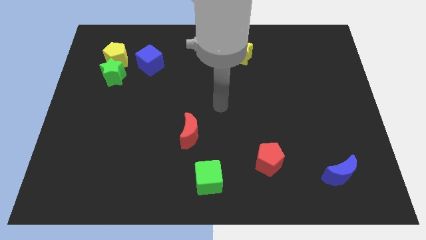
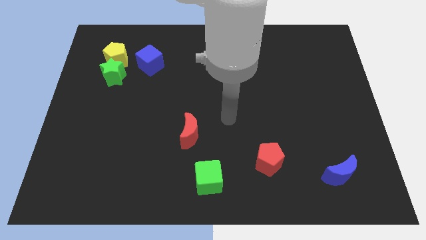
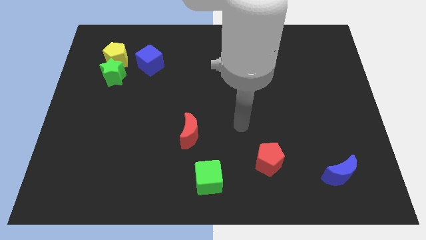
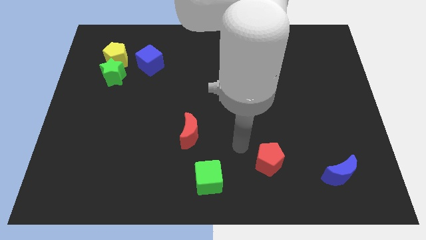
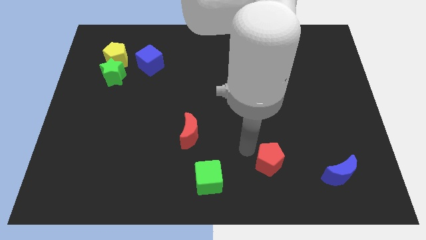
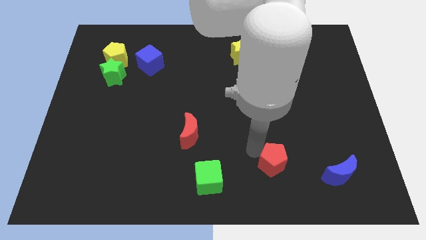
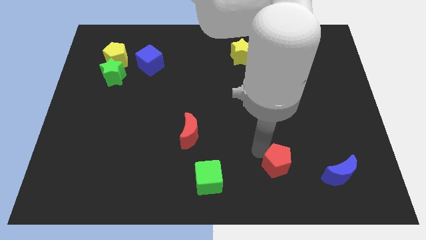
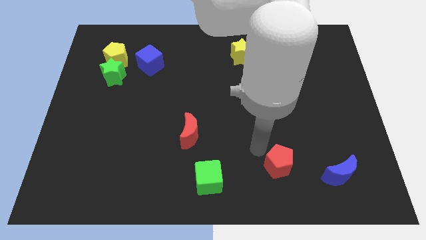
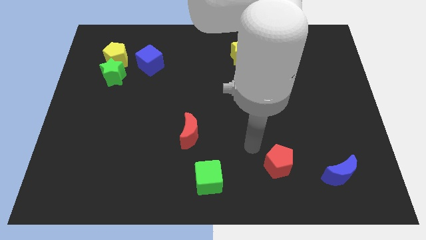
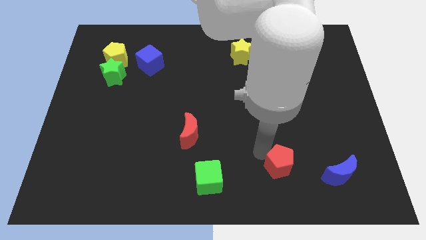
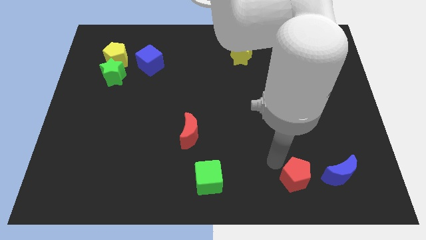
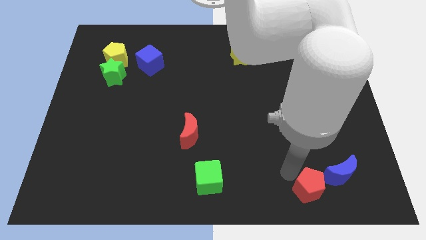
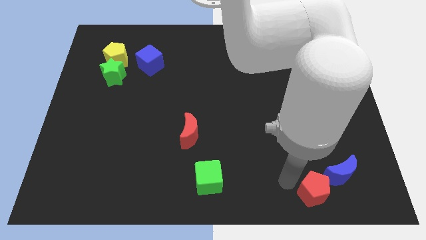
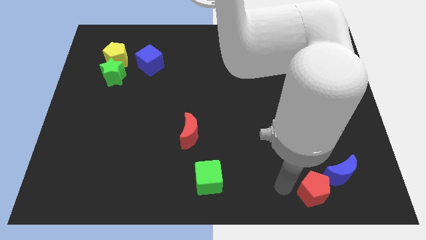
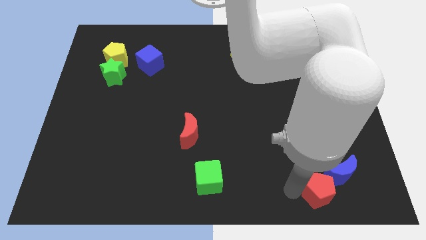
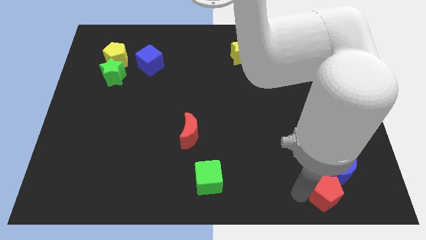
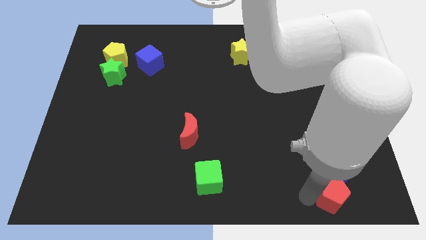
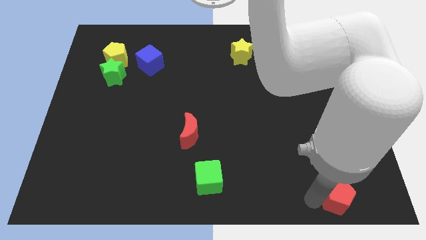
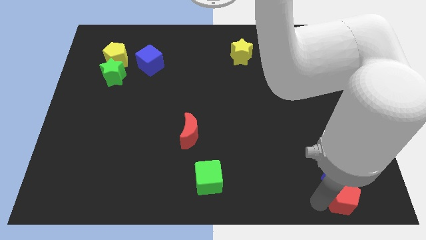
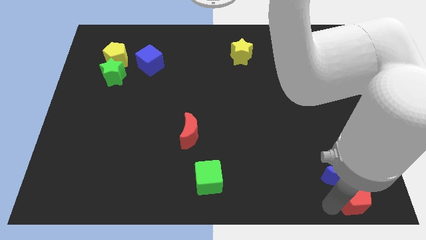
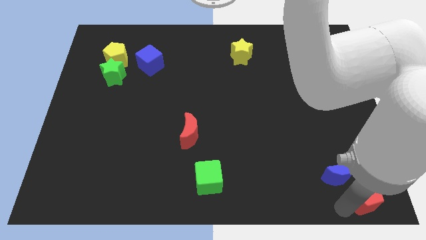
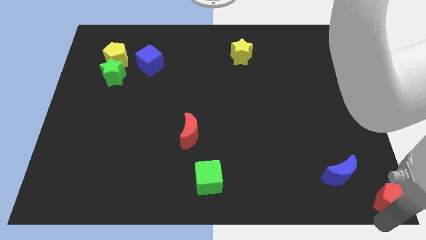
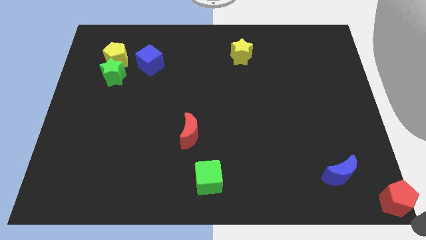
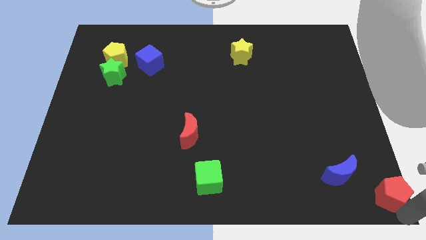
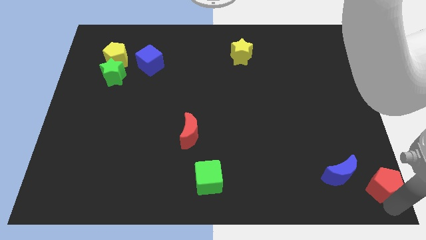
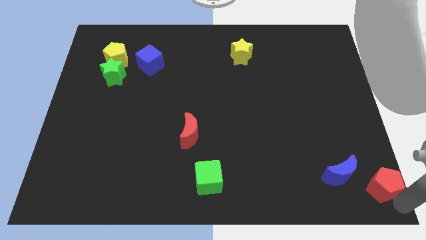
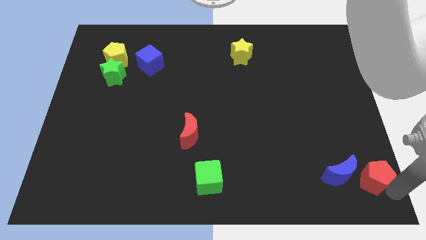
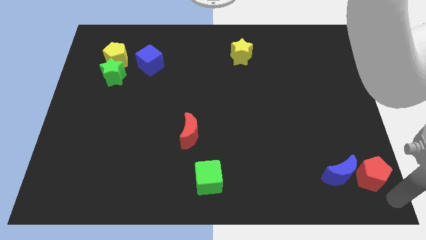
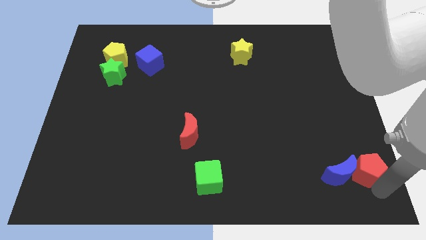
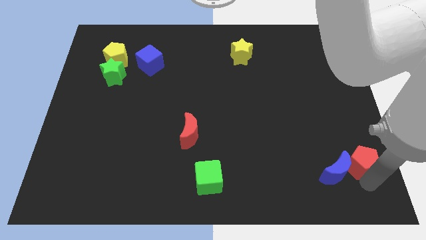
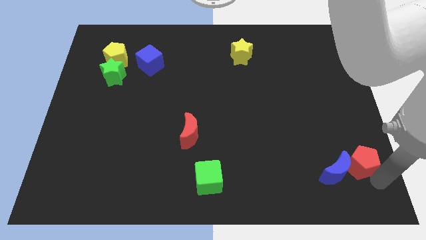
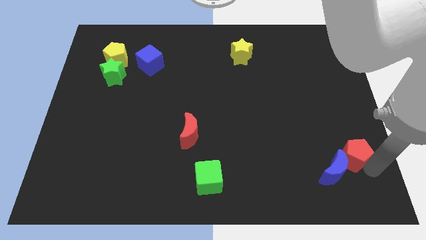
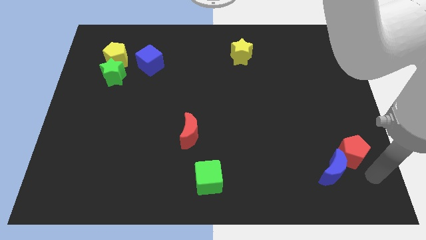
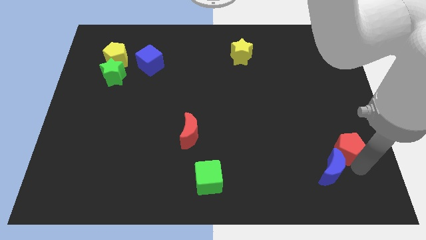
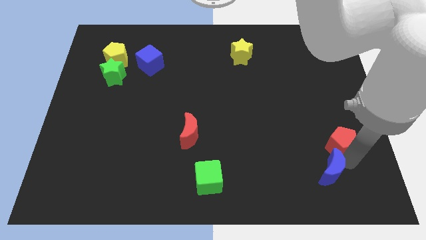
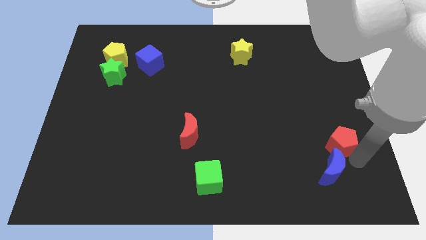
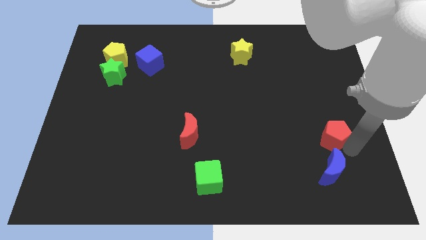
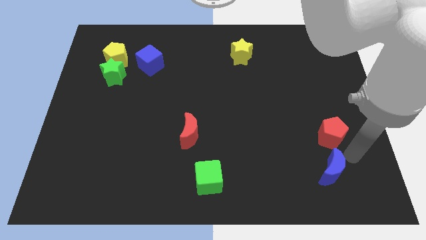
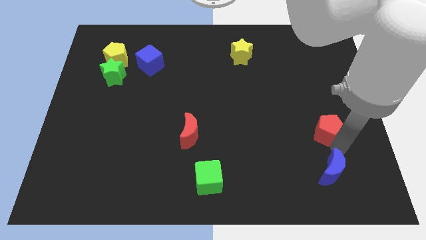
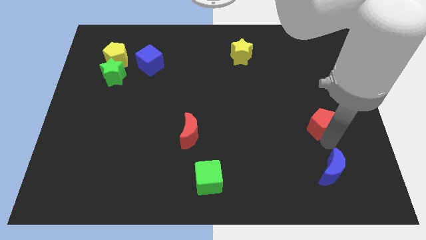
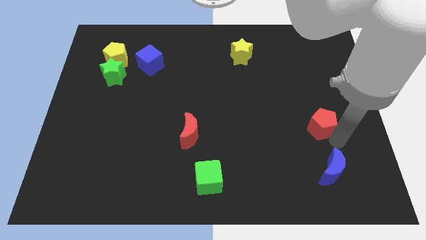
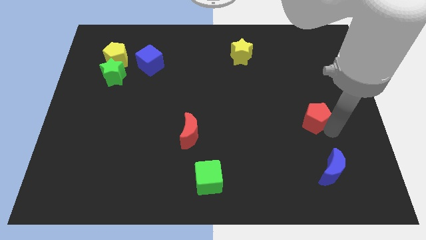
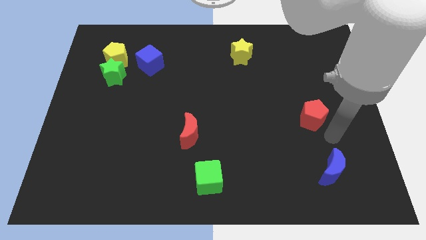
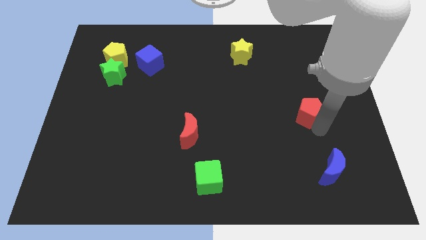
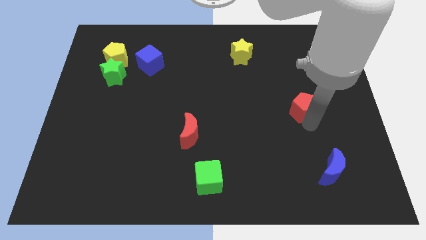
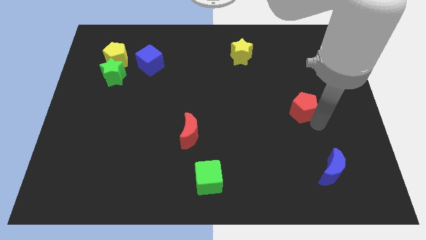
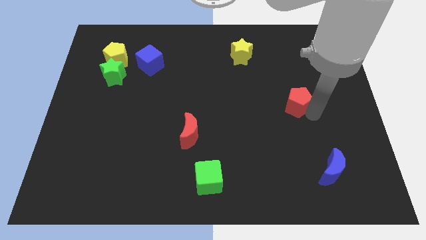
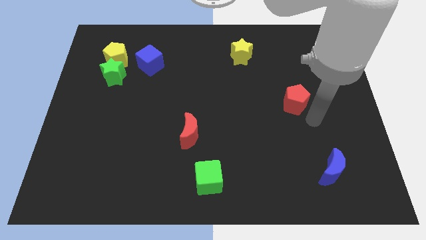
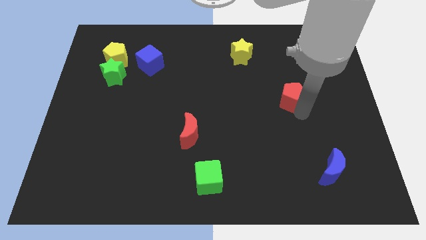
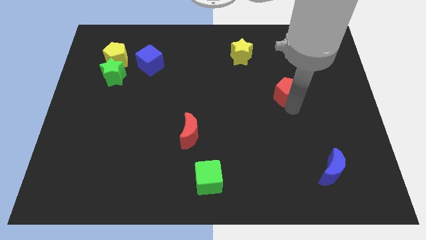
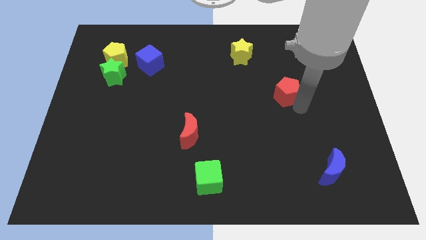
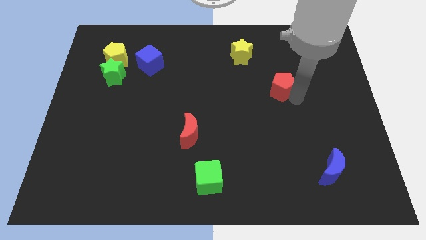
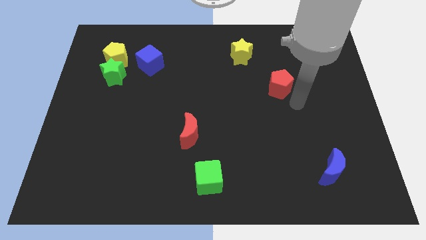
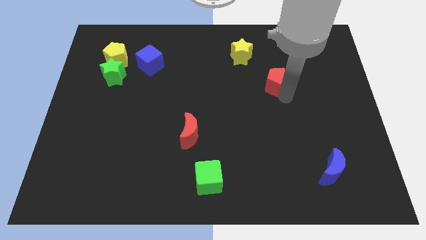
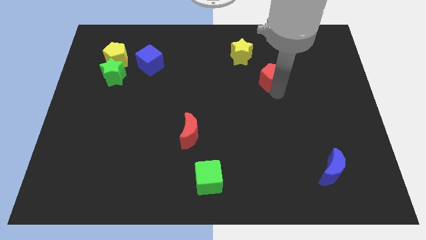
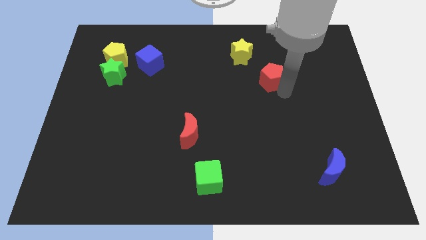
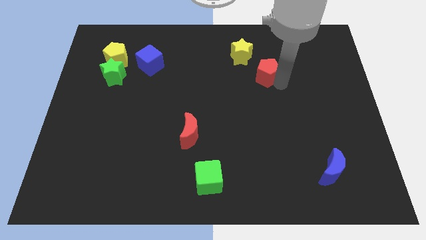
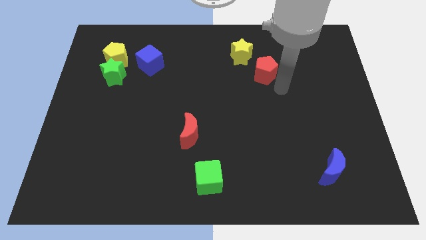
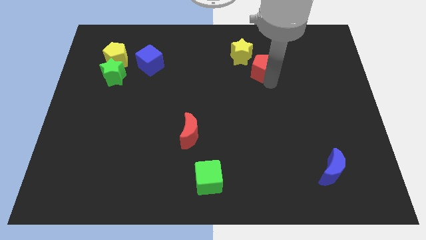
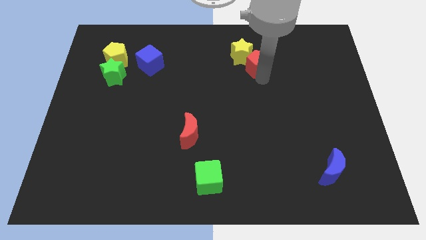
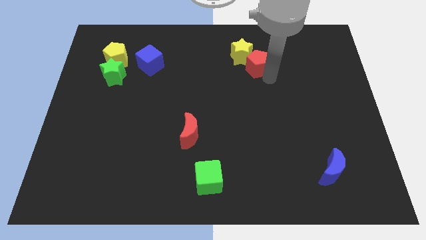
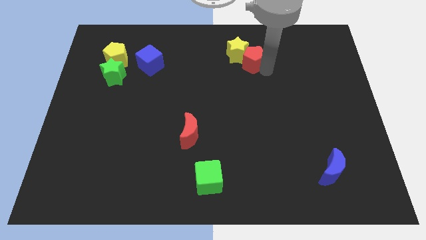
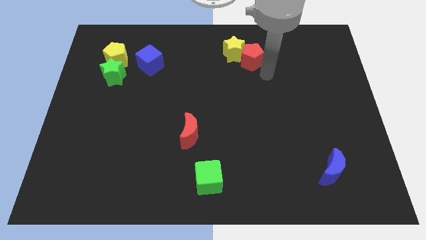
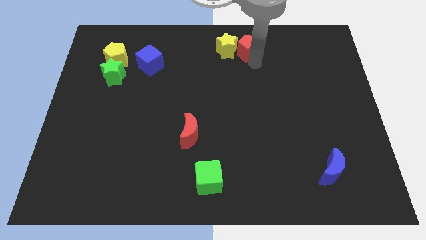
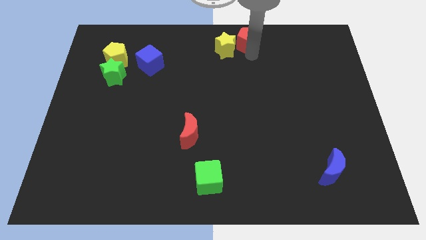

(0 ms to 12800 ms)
move the red pentagon to the top

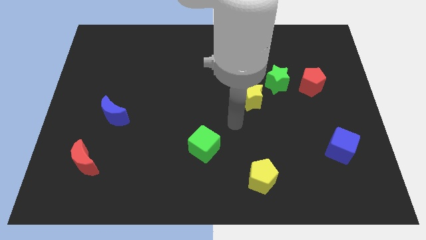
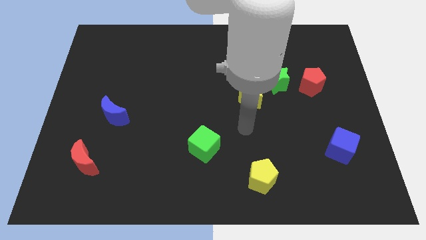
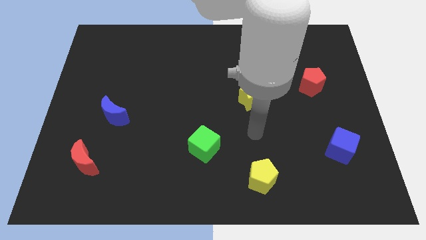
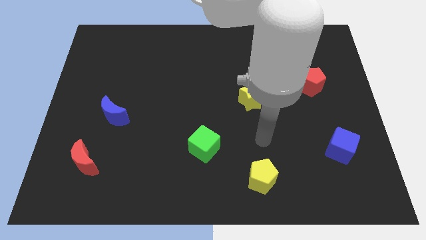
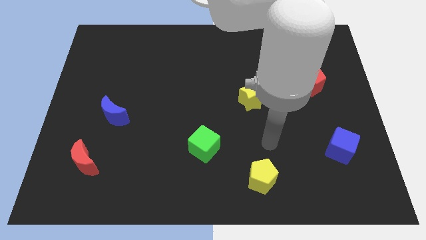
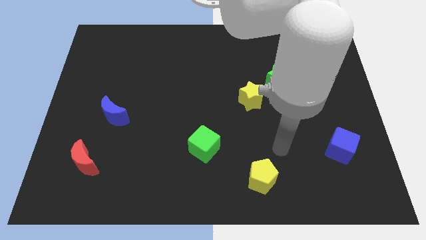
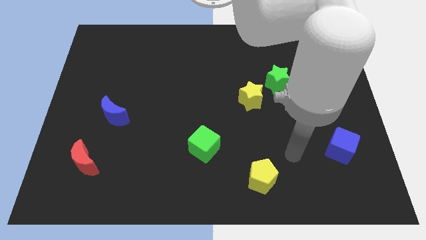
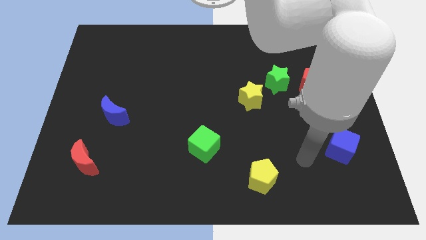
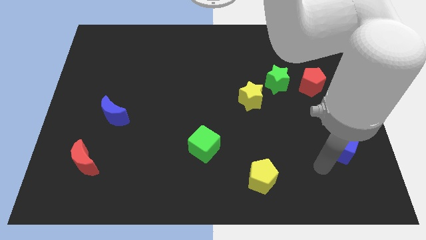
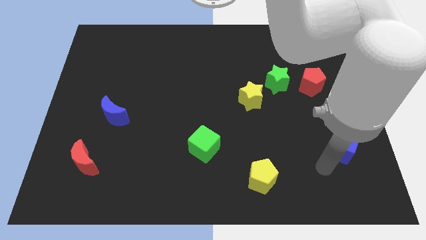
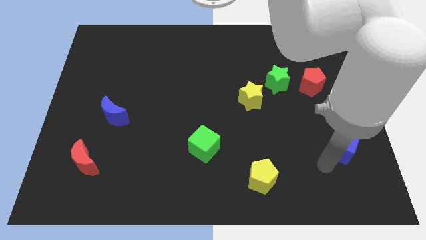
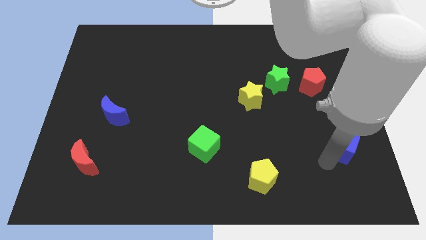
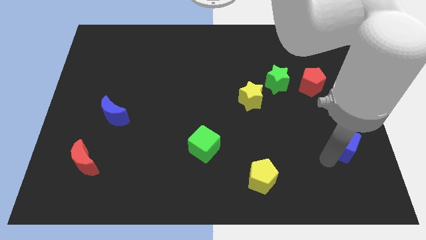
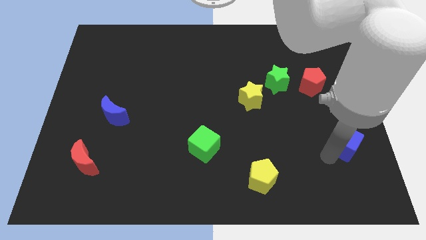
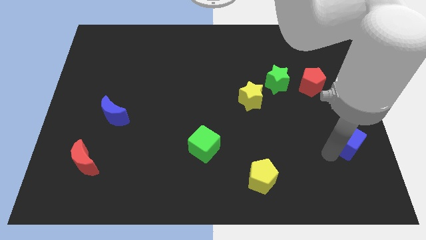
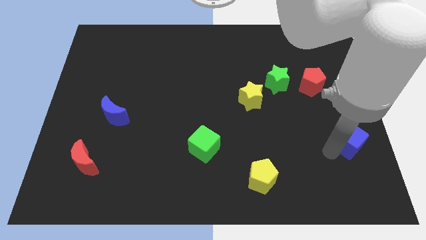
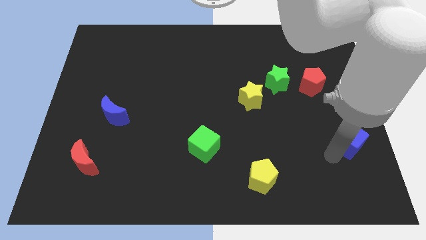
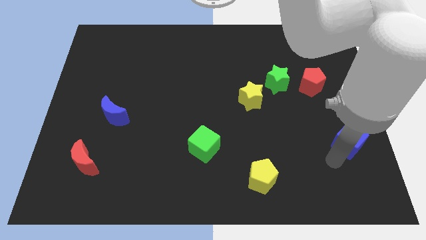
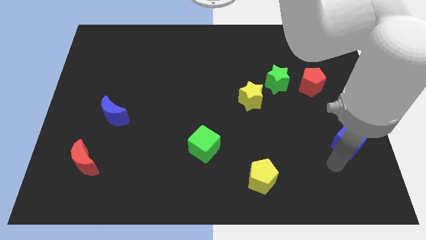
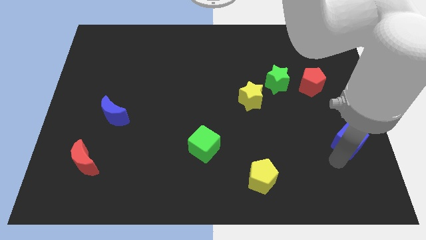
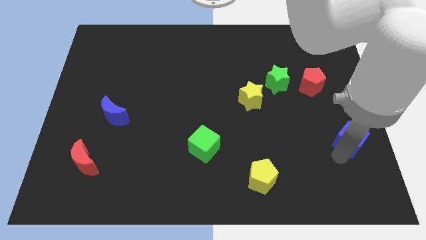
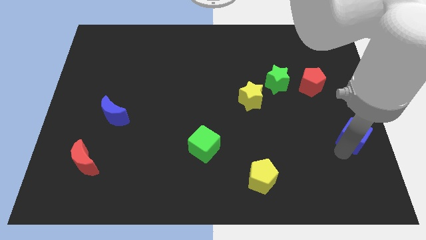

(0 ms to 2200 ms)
move the blue cube to the right side of the board
